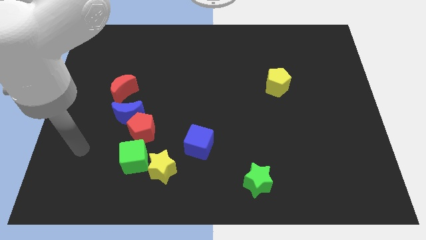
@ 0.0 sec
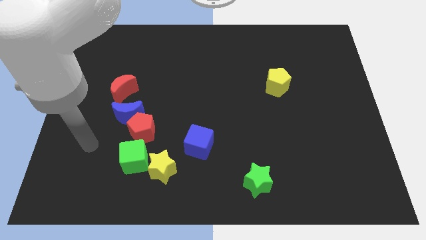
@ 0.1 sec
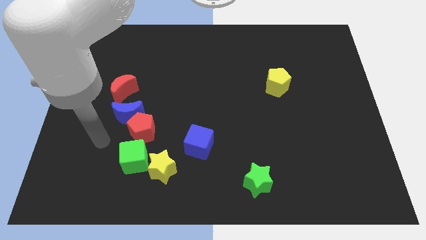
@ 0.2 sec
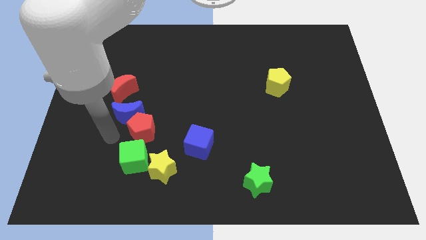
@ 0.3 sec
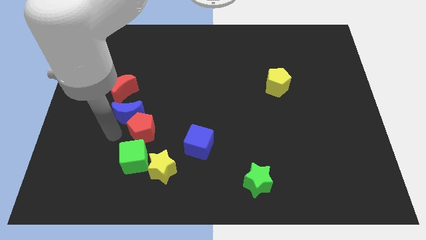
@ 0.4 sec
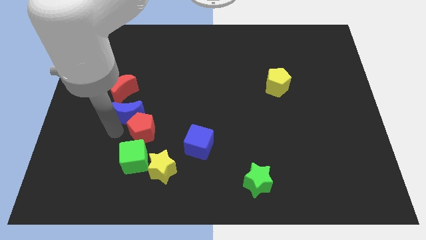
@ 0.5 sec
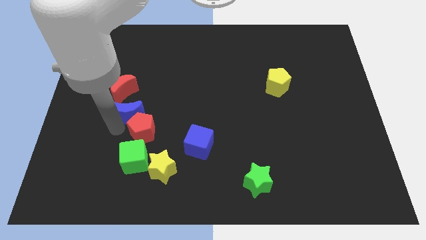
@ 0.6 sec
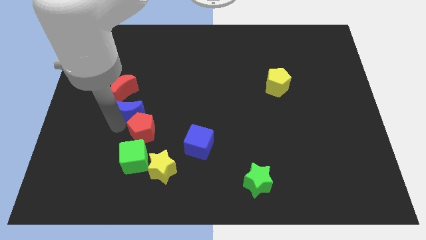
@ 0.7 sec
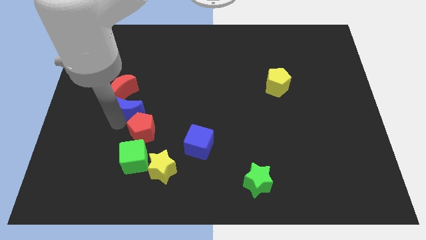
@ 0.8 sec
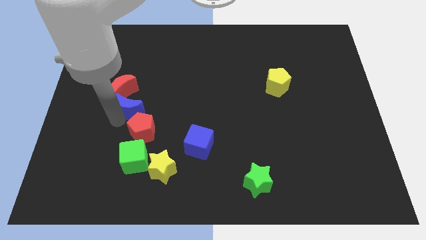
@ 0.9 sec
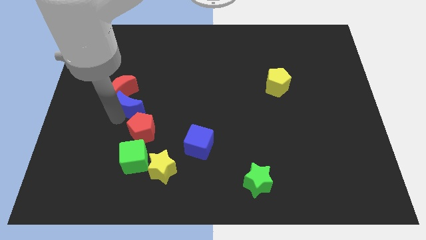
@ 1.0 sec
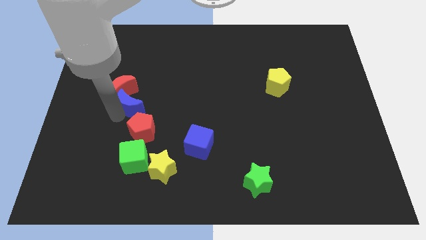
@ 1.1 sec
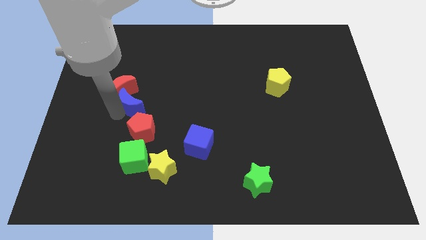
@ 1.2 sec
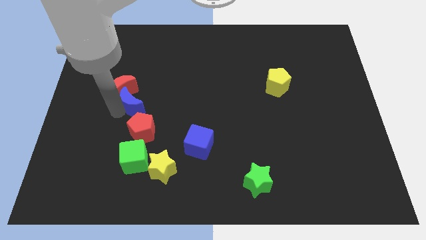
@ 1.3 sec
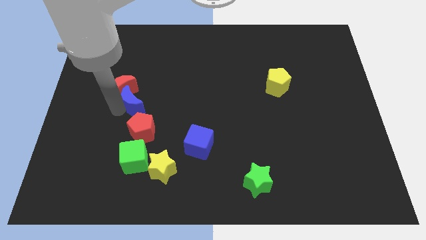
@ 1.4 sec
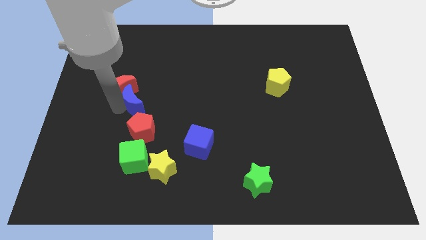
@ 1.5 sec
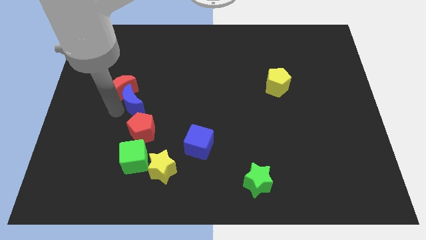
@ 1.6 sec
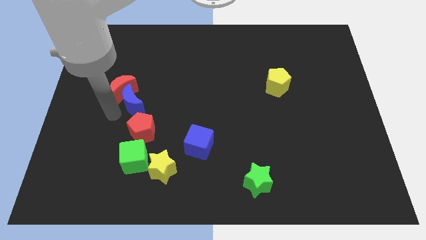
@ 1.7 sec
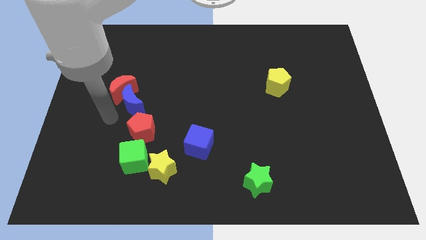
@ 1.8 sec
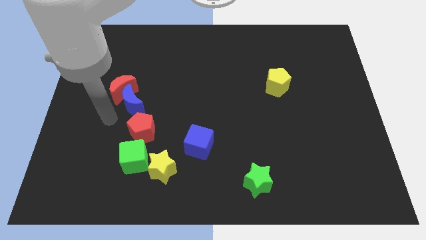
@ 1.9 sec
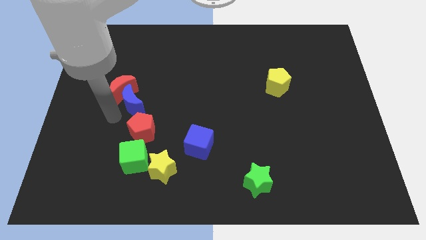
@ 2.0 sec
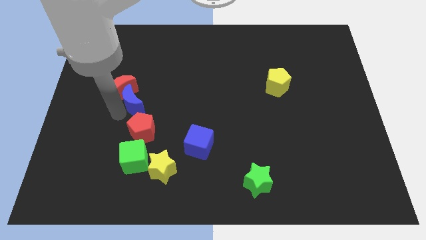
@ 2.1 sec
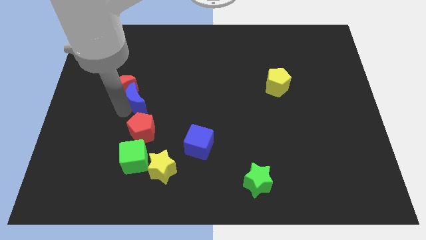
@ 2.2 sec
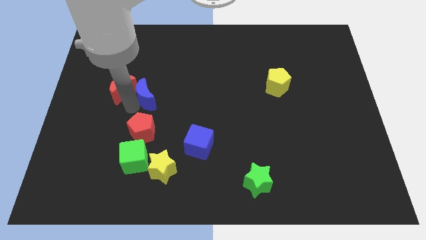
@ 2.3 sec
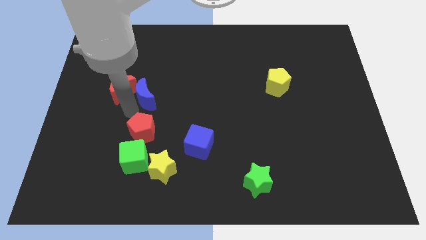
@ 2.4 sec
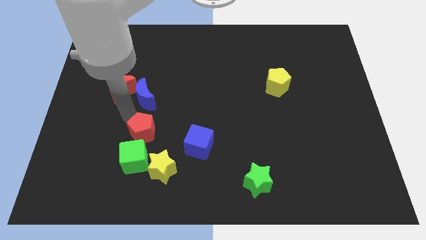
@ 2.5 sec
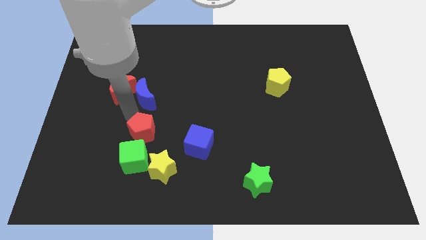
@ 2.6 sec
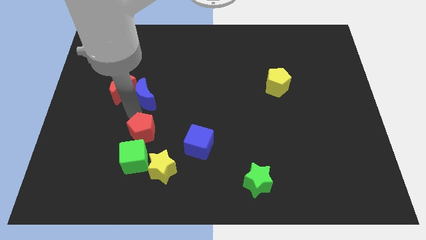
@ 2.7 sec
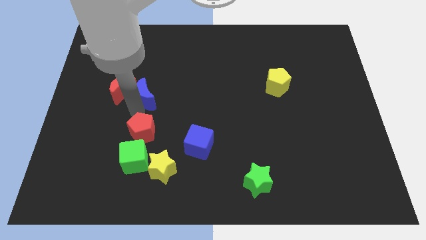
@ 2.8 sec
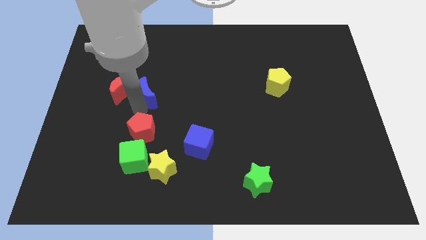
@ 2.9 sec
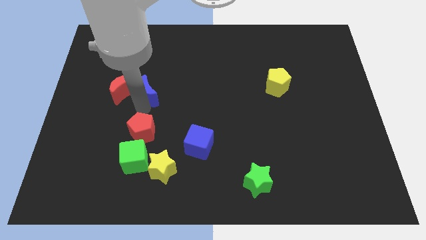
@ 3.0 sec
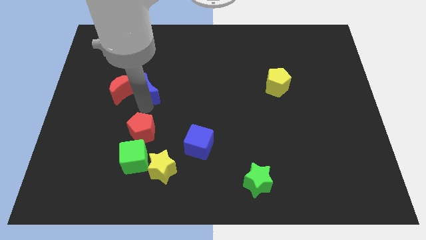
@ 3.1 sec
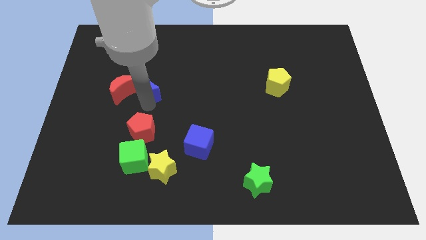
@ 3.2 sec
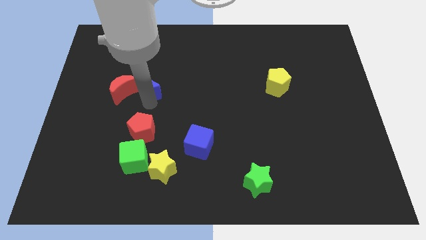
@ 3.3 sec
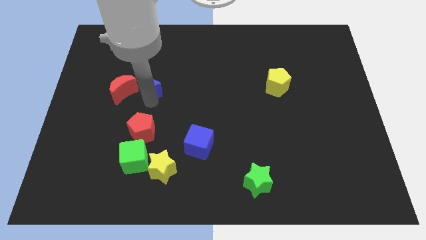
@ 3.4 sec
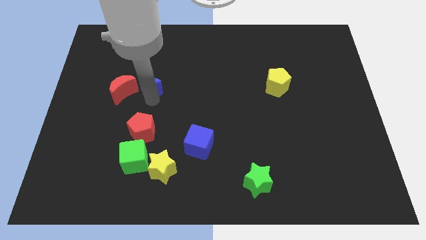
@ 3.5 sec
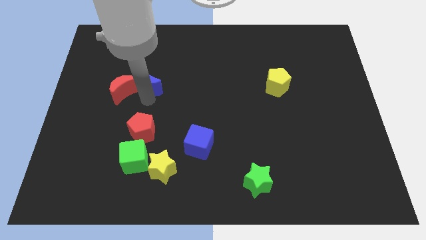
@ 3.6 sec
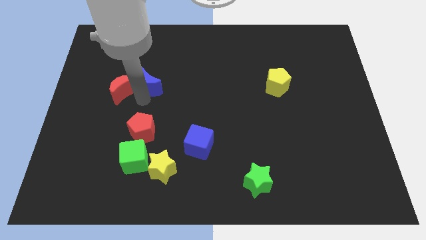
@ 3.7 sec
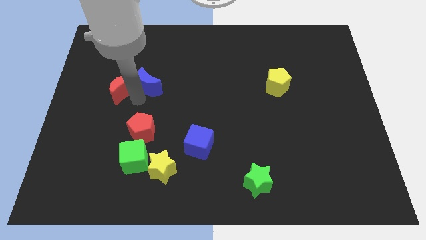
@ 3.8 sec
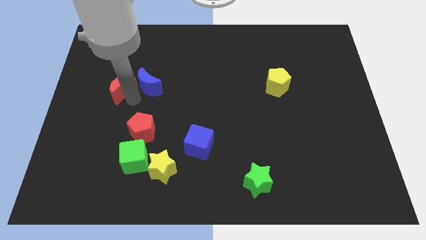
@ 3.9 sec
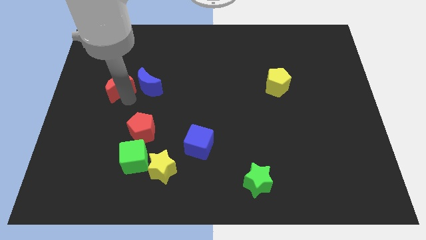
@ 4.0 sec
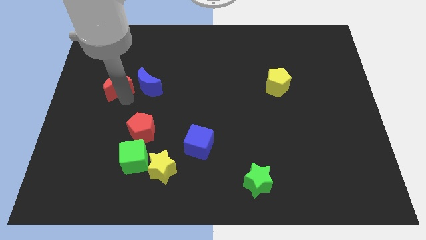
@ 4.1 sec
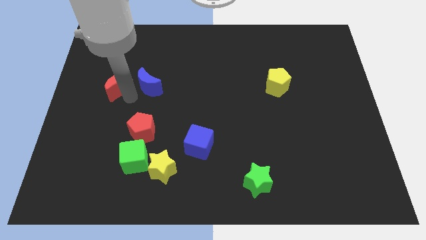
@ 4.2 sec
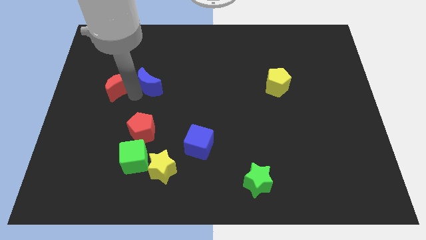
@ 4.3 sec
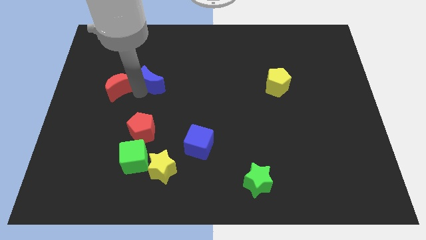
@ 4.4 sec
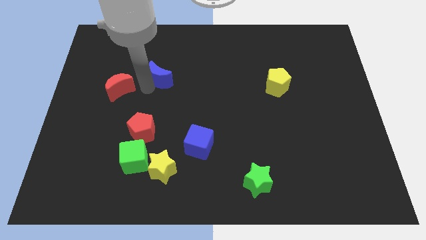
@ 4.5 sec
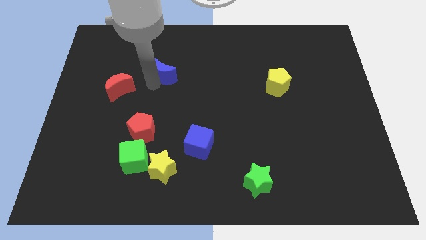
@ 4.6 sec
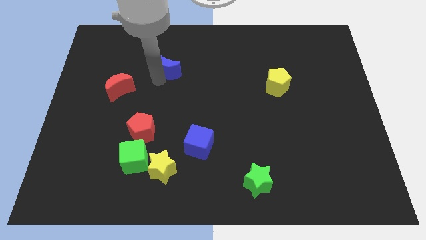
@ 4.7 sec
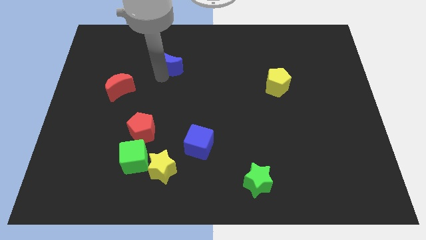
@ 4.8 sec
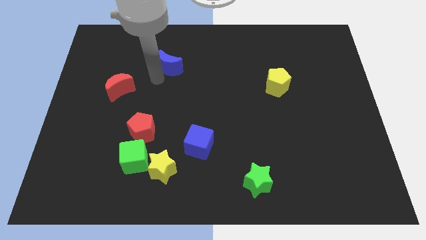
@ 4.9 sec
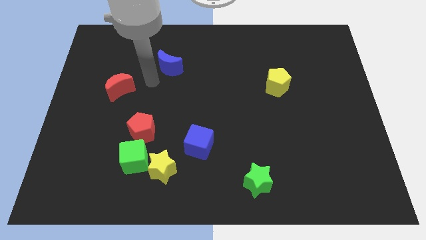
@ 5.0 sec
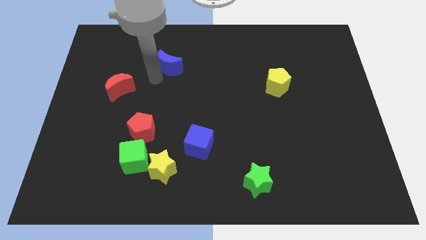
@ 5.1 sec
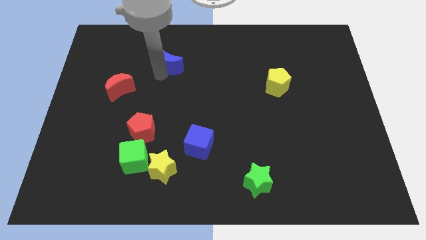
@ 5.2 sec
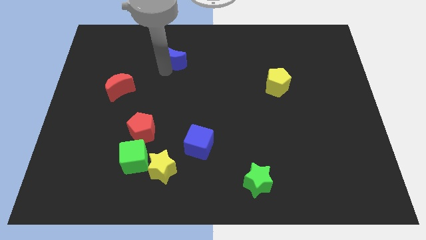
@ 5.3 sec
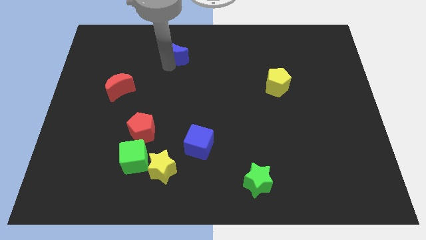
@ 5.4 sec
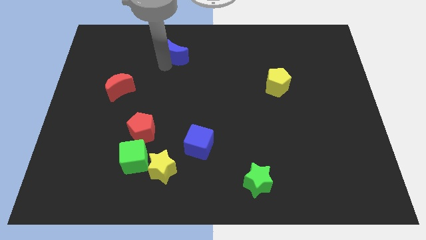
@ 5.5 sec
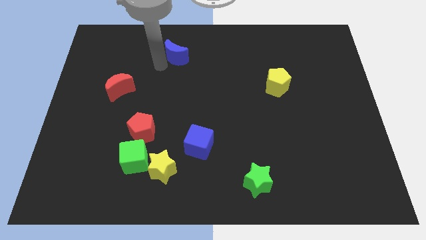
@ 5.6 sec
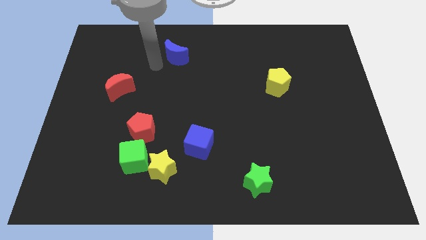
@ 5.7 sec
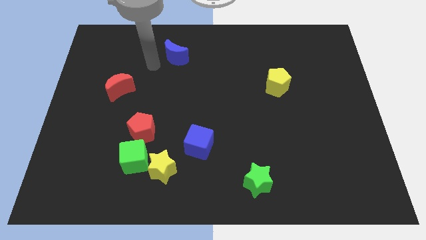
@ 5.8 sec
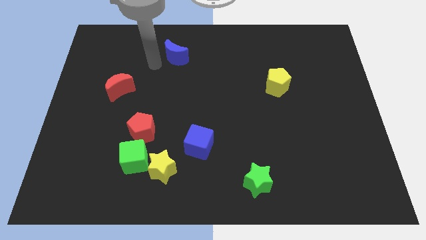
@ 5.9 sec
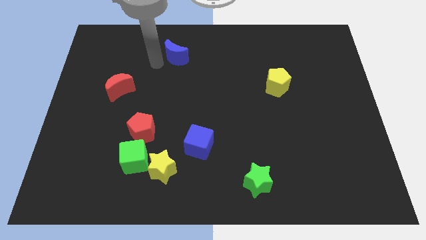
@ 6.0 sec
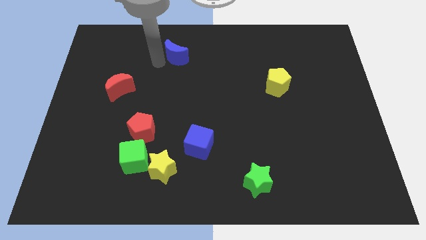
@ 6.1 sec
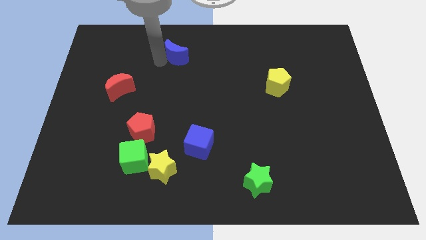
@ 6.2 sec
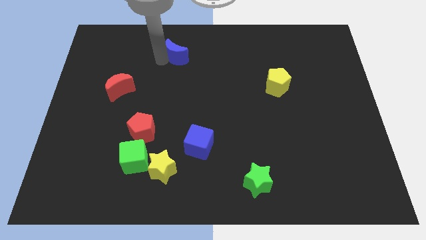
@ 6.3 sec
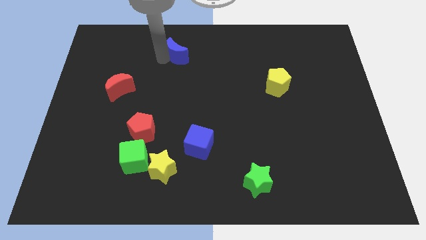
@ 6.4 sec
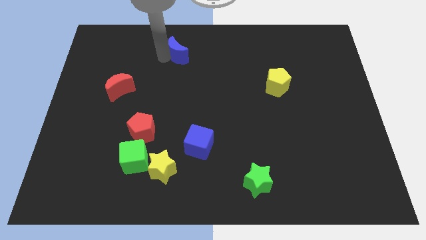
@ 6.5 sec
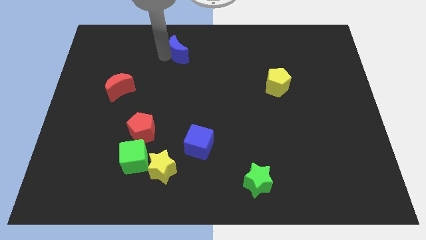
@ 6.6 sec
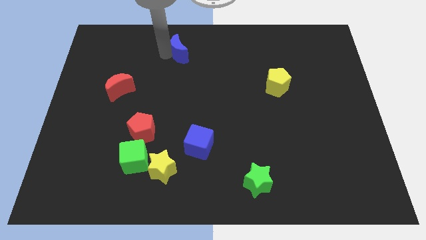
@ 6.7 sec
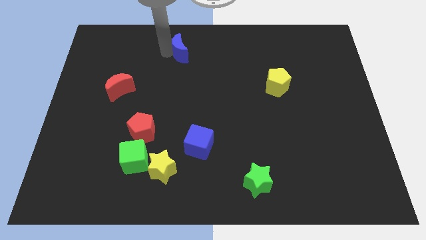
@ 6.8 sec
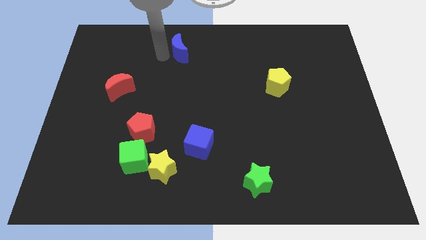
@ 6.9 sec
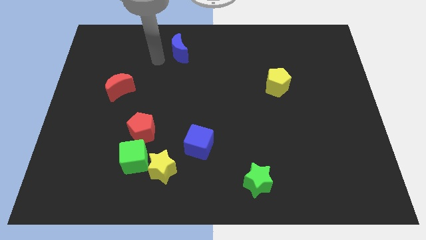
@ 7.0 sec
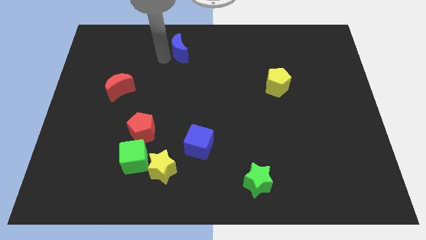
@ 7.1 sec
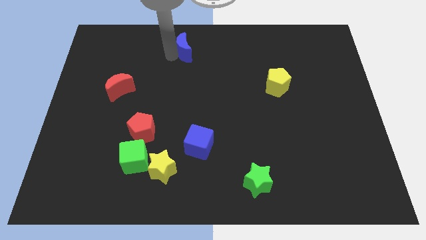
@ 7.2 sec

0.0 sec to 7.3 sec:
put the blue moon to the towards your base

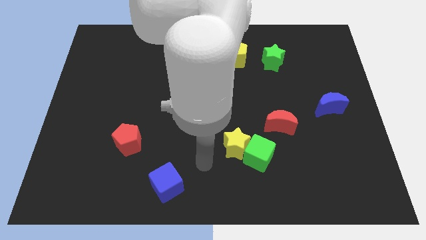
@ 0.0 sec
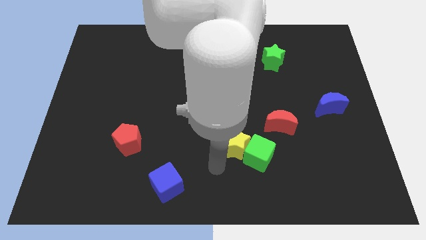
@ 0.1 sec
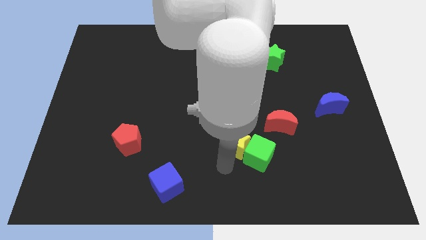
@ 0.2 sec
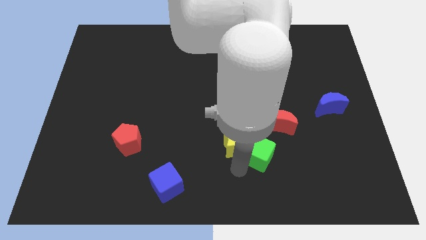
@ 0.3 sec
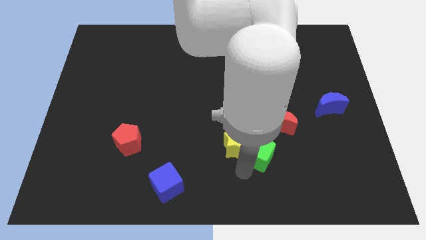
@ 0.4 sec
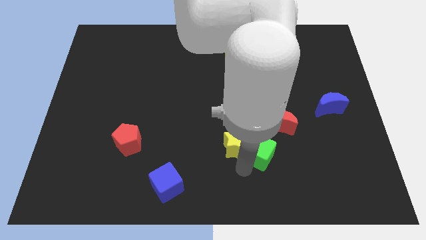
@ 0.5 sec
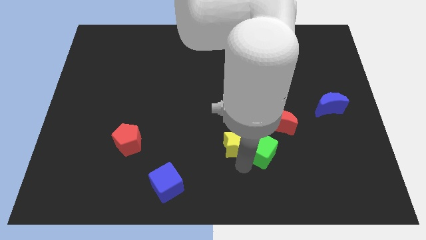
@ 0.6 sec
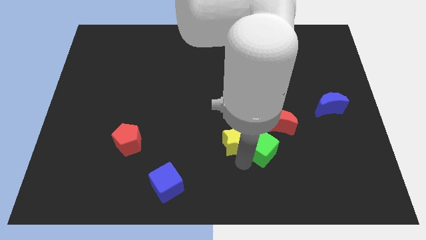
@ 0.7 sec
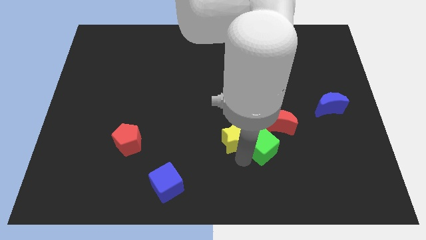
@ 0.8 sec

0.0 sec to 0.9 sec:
put the yellow star to the middle of the board
